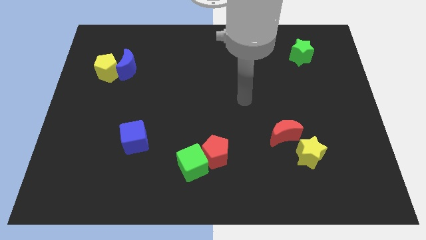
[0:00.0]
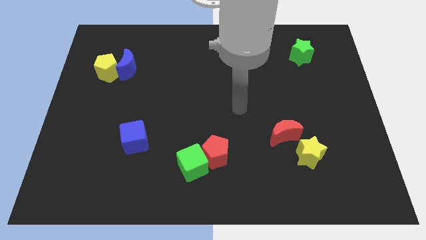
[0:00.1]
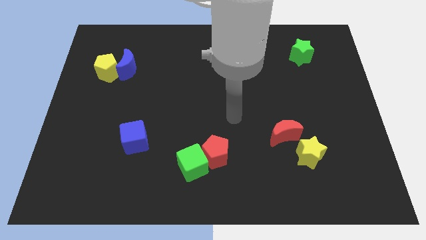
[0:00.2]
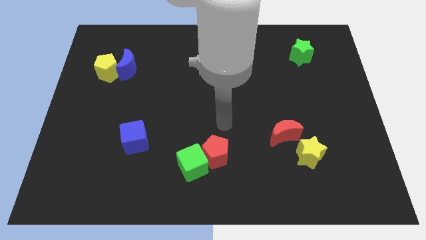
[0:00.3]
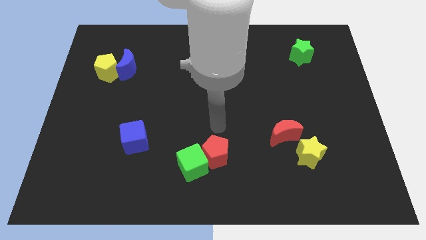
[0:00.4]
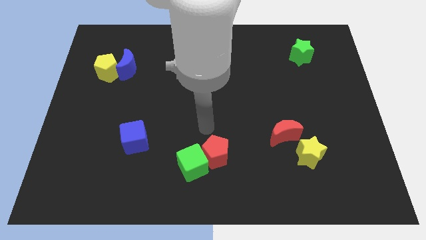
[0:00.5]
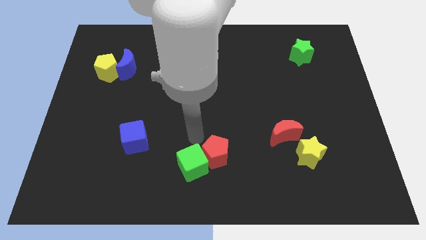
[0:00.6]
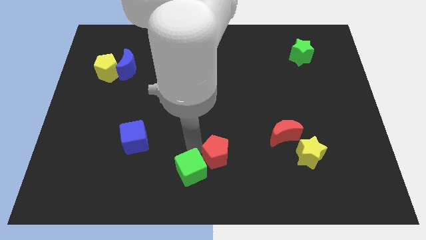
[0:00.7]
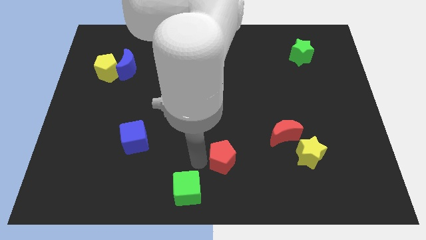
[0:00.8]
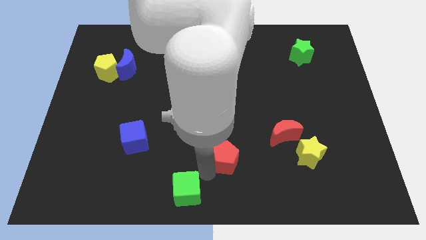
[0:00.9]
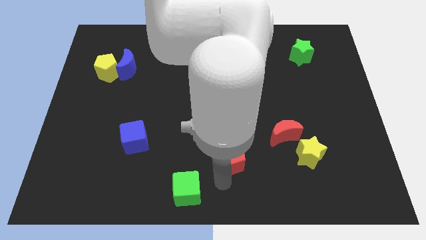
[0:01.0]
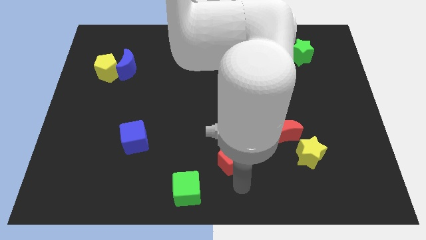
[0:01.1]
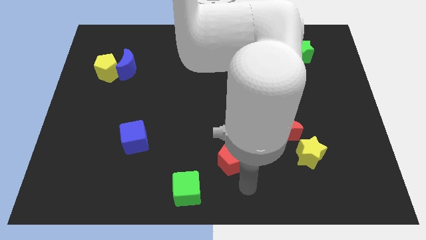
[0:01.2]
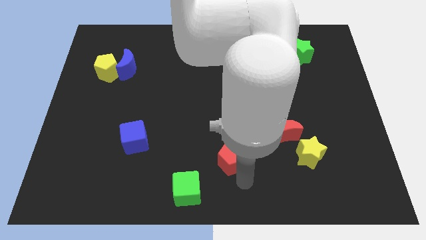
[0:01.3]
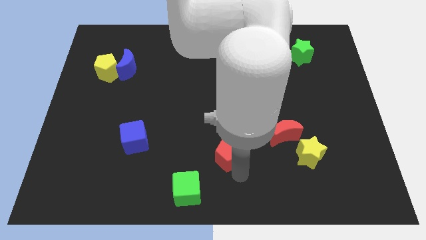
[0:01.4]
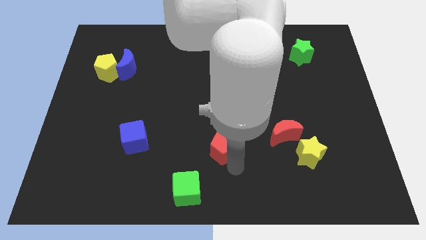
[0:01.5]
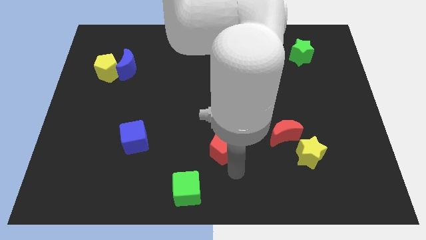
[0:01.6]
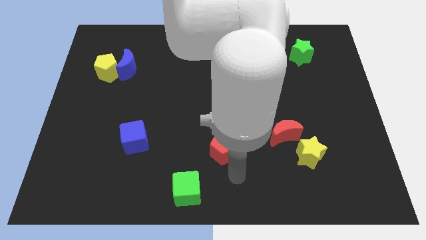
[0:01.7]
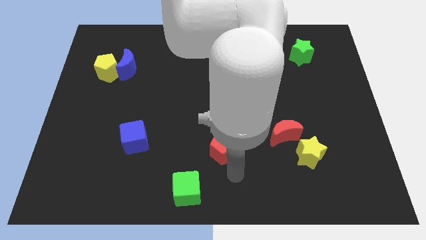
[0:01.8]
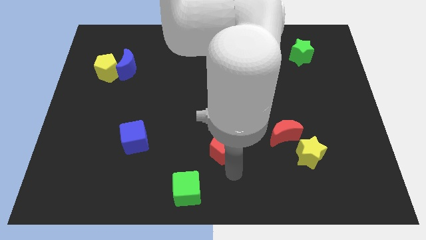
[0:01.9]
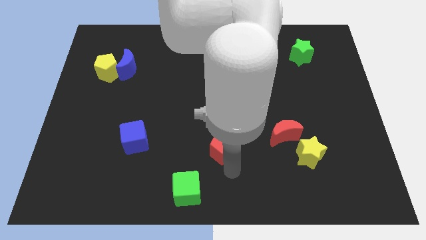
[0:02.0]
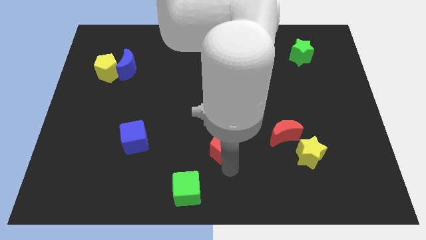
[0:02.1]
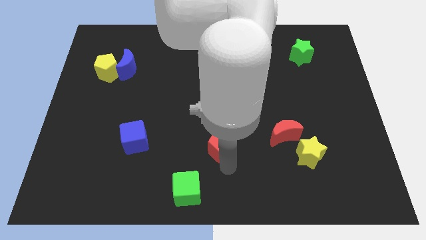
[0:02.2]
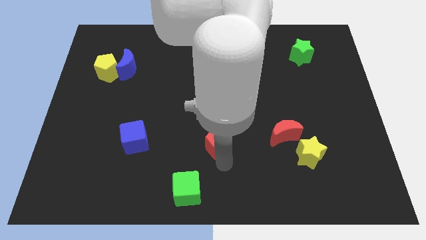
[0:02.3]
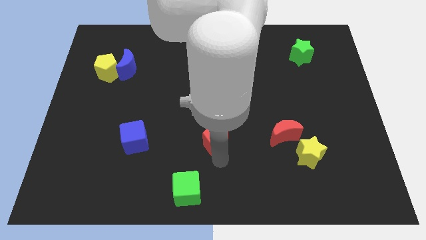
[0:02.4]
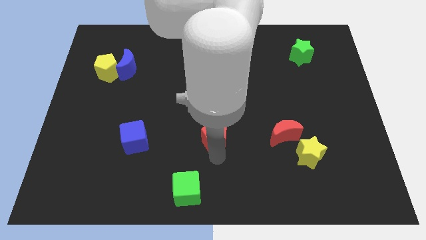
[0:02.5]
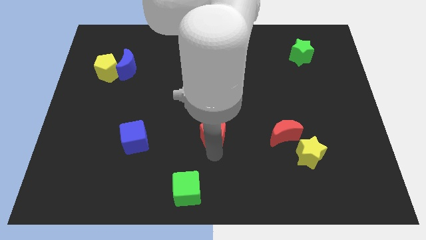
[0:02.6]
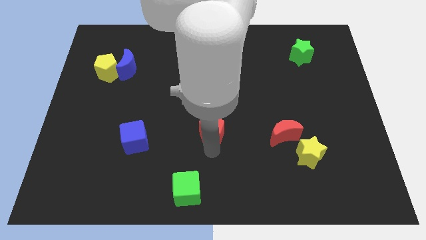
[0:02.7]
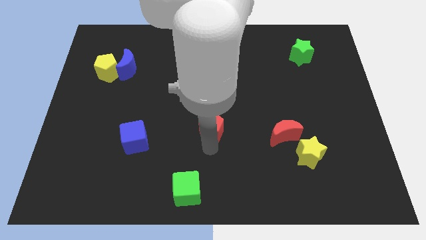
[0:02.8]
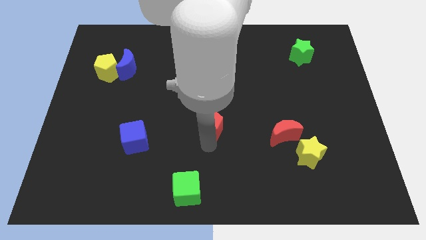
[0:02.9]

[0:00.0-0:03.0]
slightly move the red pentagon up

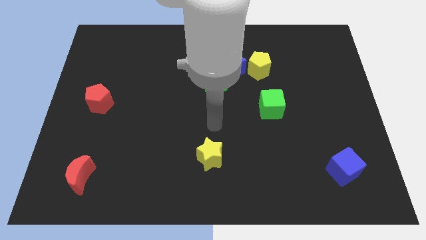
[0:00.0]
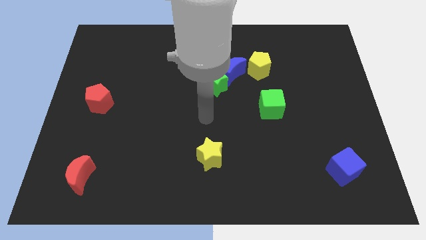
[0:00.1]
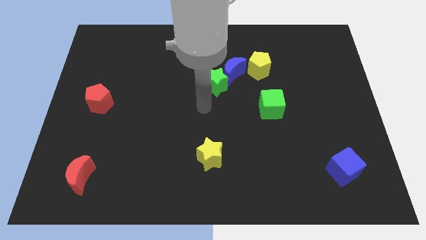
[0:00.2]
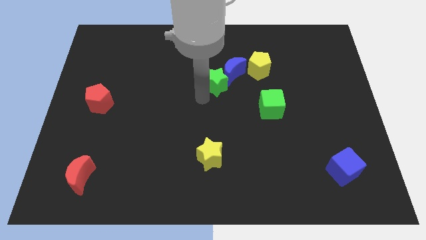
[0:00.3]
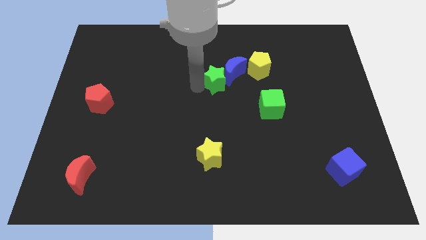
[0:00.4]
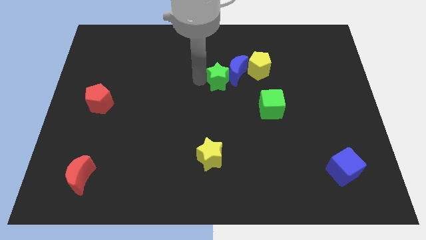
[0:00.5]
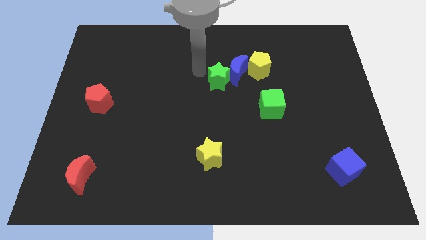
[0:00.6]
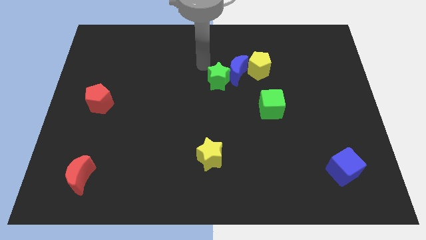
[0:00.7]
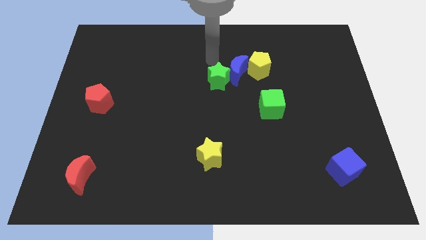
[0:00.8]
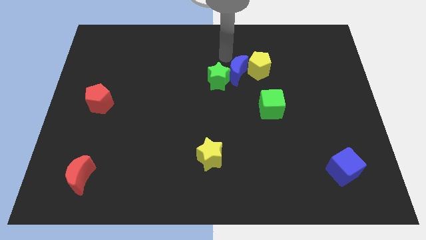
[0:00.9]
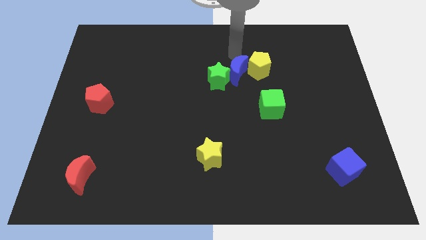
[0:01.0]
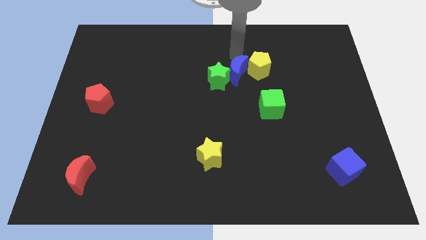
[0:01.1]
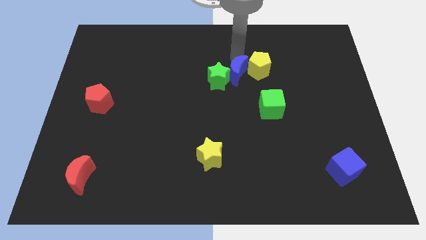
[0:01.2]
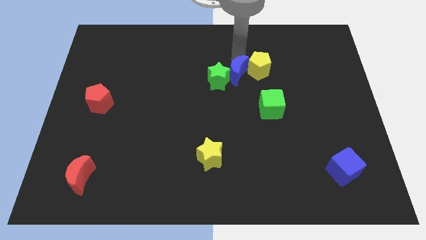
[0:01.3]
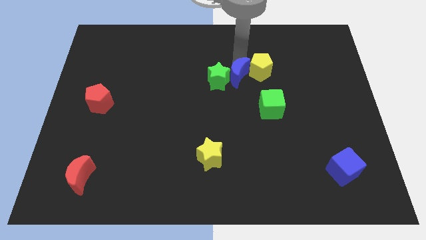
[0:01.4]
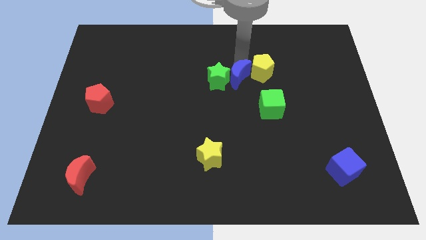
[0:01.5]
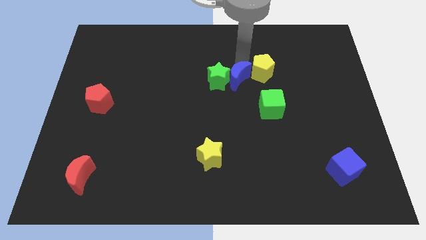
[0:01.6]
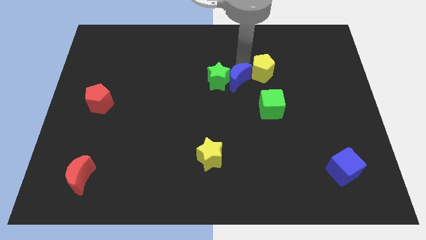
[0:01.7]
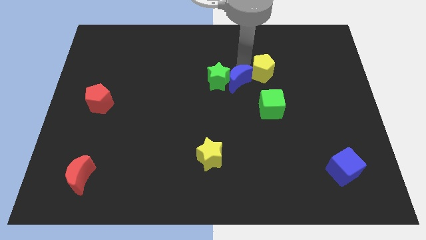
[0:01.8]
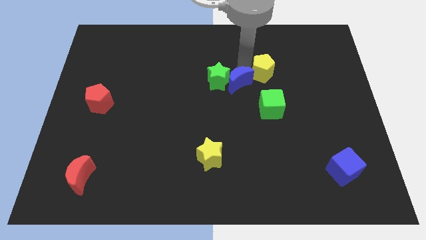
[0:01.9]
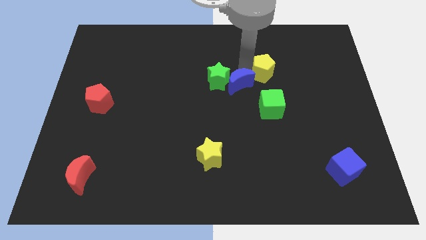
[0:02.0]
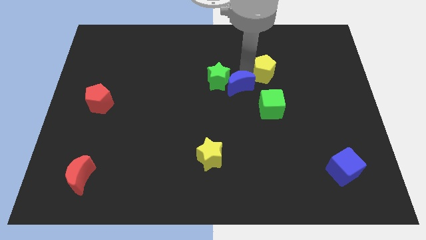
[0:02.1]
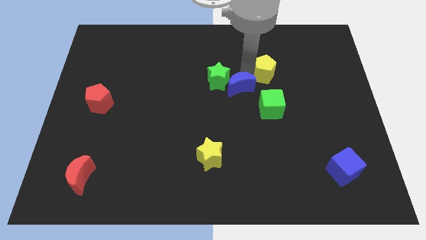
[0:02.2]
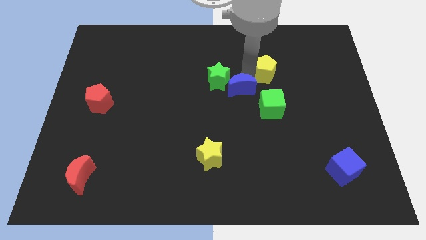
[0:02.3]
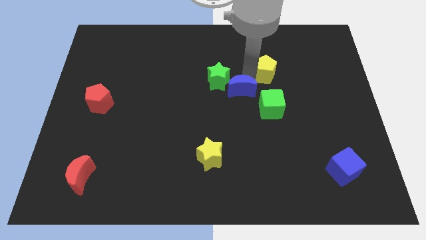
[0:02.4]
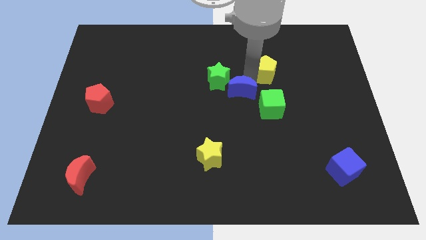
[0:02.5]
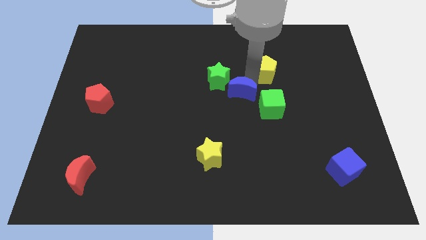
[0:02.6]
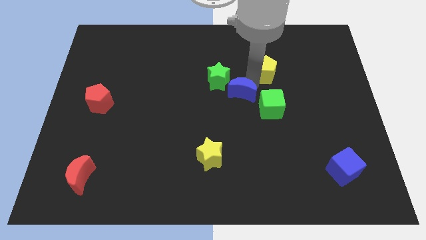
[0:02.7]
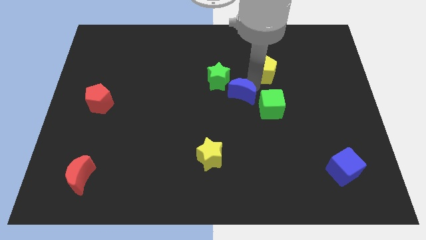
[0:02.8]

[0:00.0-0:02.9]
slightly slide the blue moon down

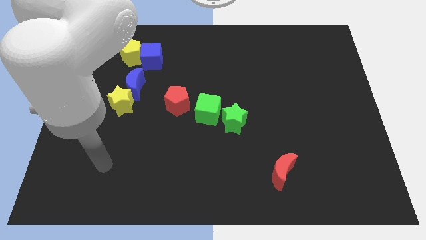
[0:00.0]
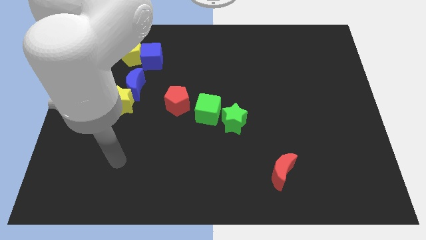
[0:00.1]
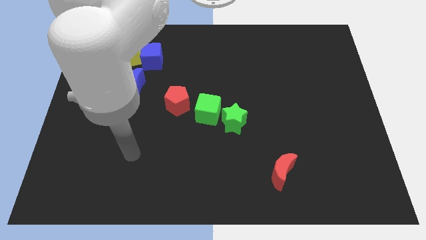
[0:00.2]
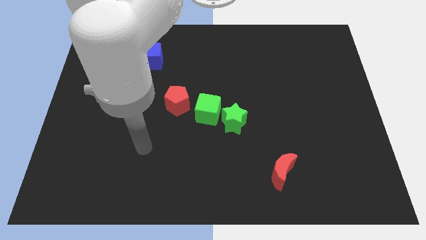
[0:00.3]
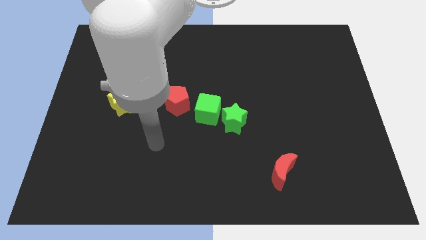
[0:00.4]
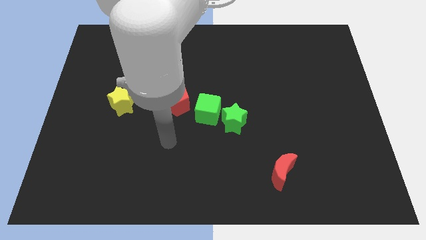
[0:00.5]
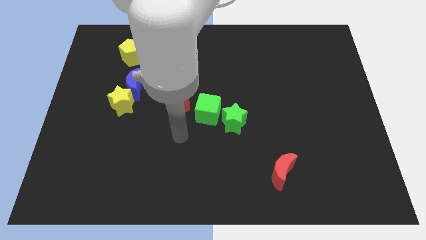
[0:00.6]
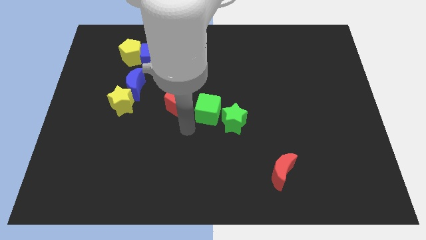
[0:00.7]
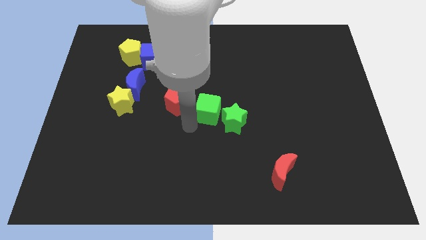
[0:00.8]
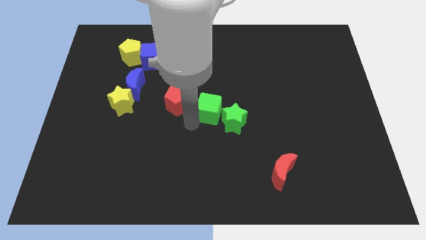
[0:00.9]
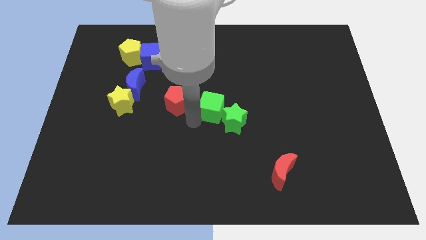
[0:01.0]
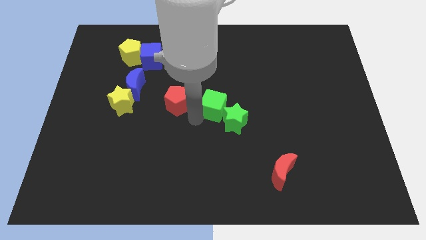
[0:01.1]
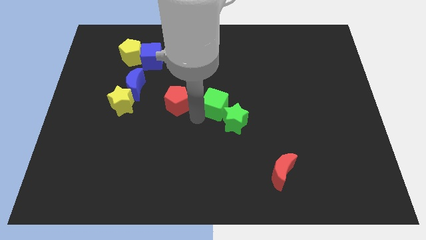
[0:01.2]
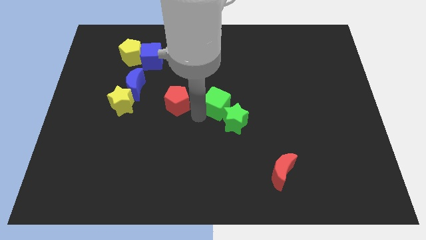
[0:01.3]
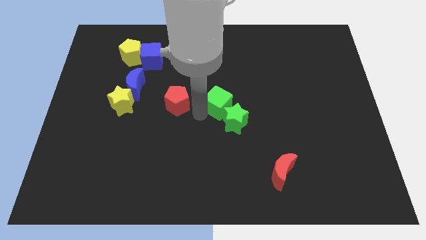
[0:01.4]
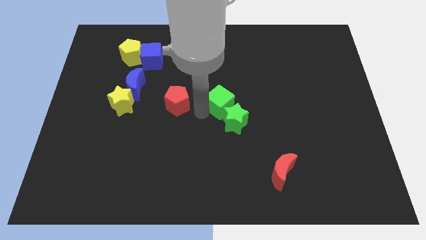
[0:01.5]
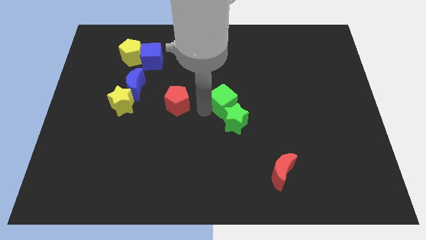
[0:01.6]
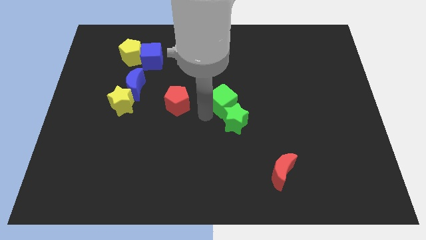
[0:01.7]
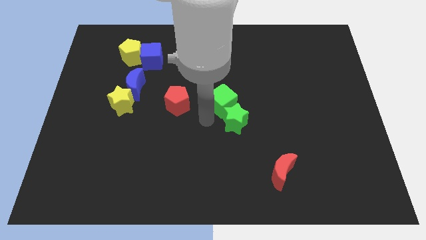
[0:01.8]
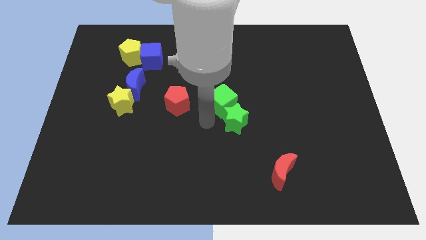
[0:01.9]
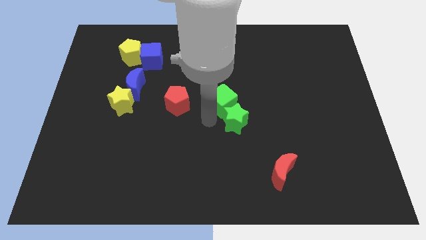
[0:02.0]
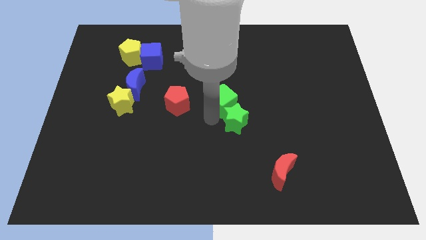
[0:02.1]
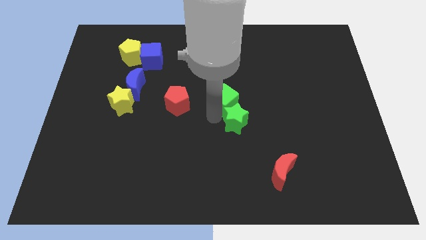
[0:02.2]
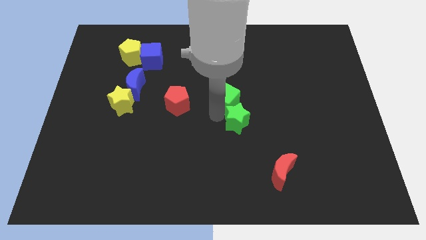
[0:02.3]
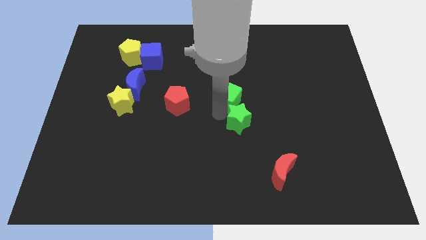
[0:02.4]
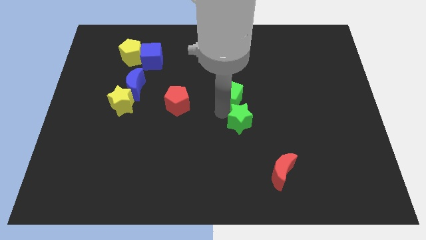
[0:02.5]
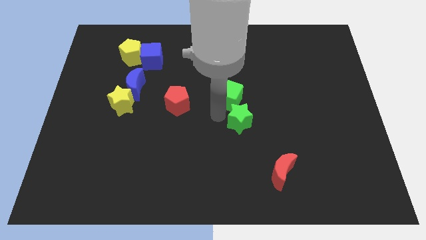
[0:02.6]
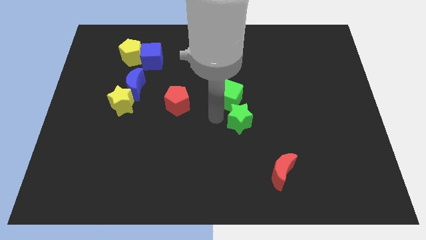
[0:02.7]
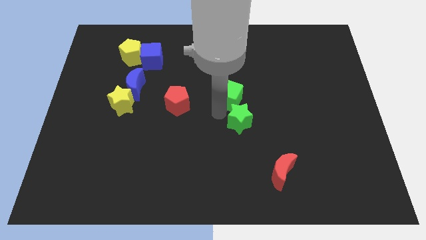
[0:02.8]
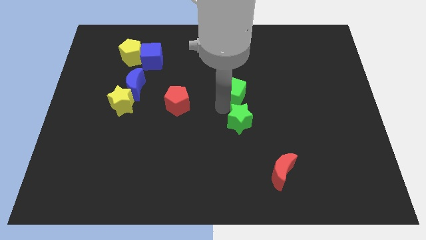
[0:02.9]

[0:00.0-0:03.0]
push the green cube somewhat upwards and to the right diagonally
